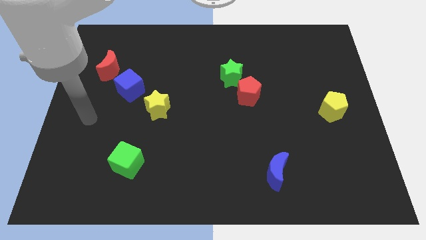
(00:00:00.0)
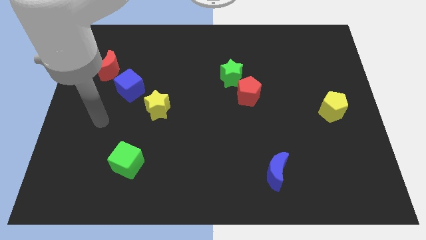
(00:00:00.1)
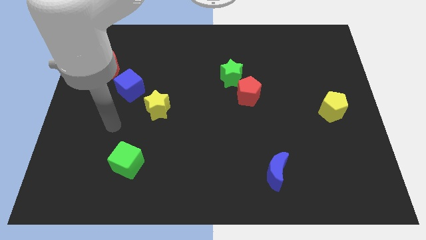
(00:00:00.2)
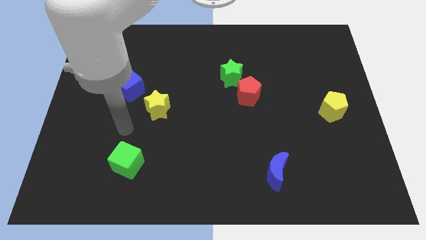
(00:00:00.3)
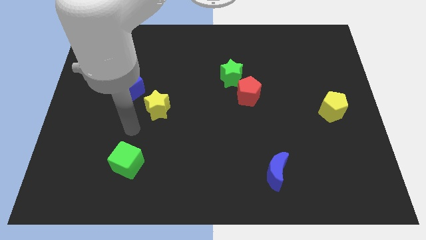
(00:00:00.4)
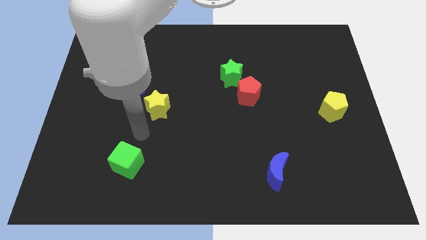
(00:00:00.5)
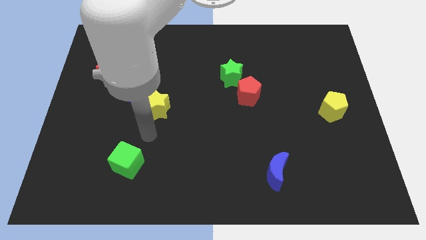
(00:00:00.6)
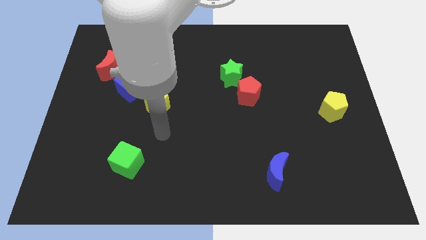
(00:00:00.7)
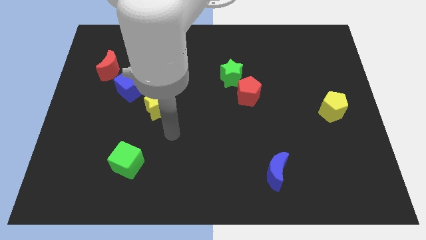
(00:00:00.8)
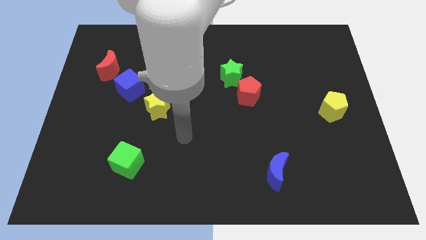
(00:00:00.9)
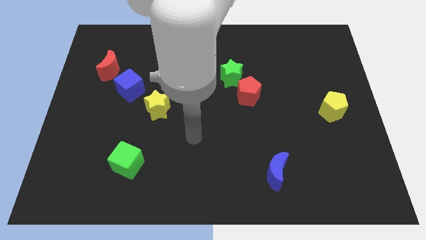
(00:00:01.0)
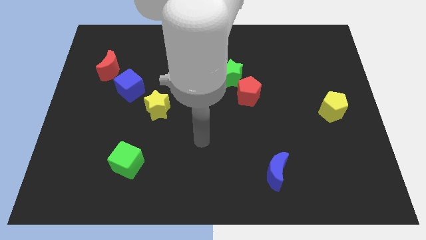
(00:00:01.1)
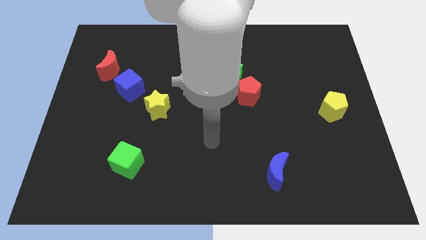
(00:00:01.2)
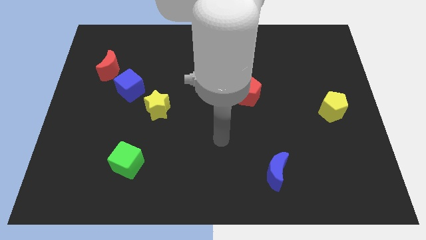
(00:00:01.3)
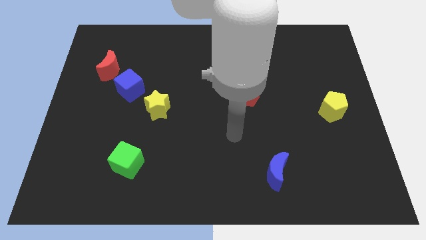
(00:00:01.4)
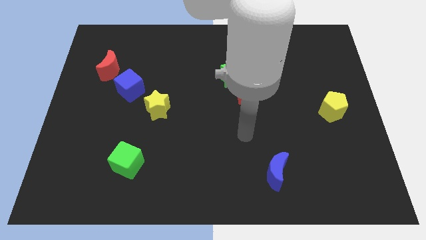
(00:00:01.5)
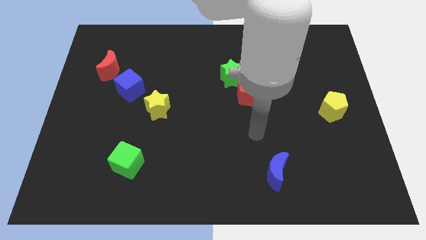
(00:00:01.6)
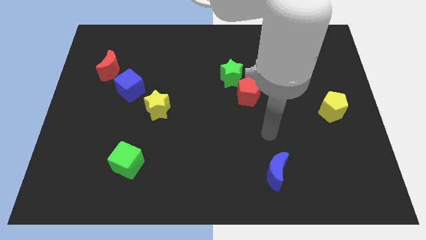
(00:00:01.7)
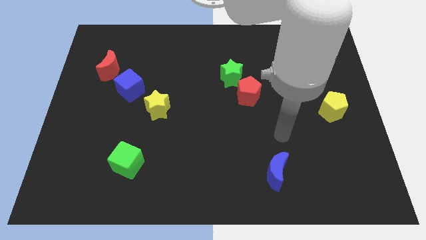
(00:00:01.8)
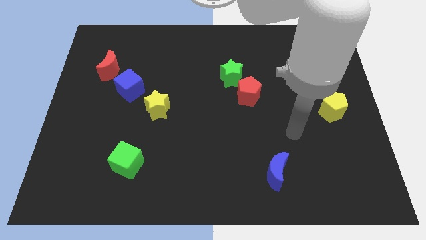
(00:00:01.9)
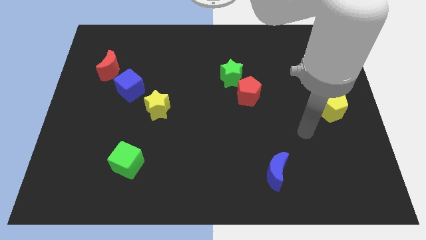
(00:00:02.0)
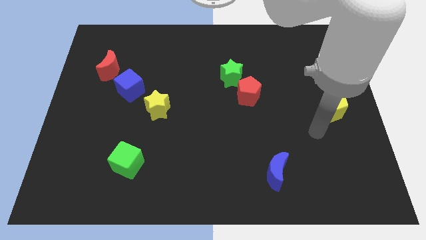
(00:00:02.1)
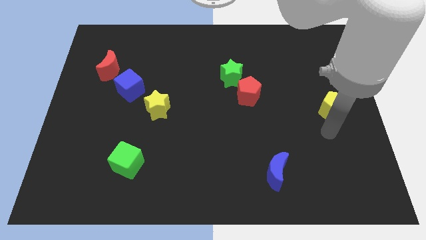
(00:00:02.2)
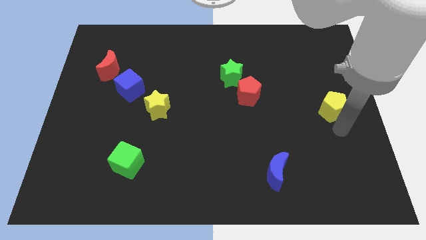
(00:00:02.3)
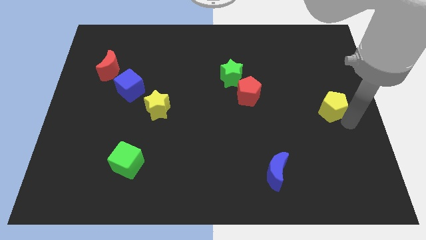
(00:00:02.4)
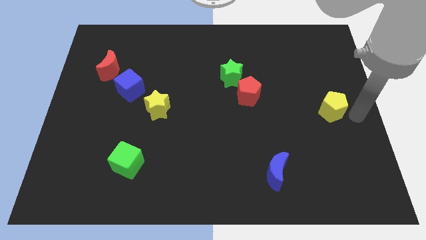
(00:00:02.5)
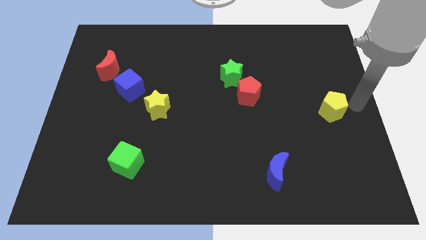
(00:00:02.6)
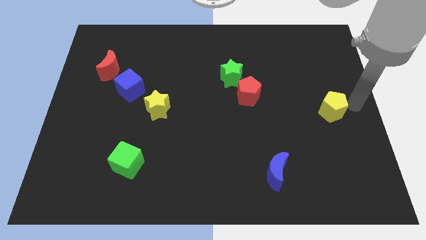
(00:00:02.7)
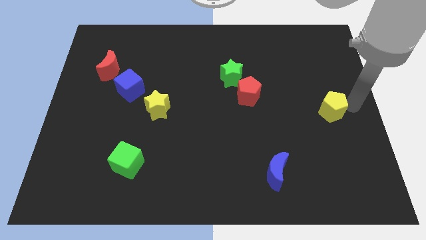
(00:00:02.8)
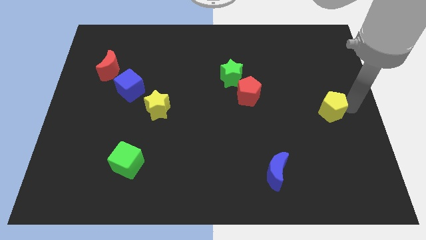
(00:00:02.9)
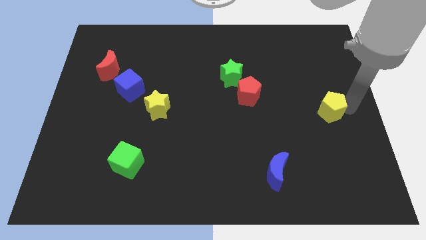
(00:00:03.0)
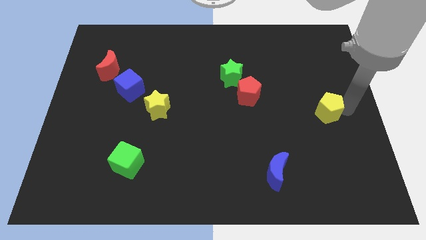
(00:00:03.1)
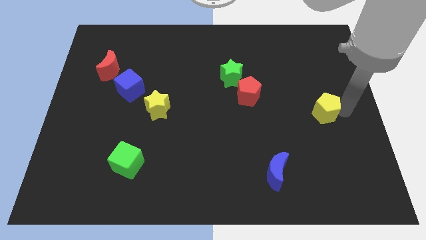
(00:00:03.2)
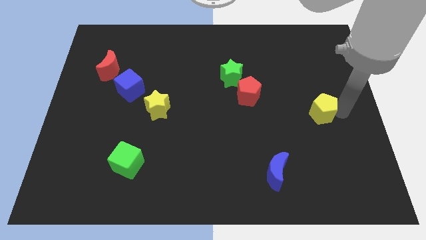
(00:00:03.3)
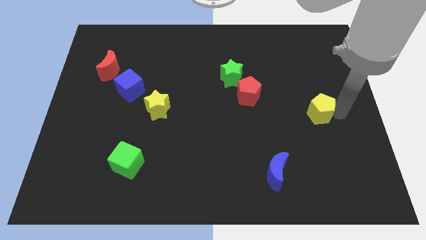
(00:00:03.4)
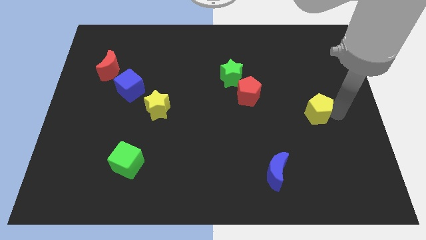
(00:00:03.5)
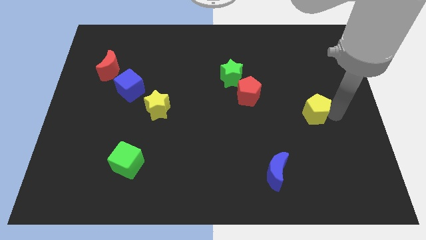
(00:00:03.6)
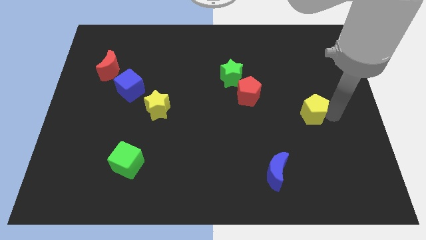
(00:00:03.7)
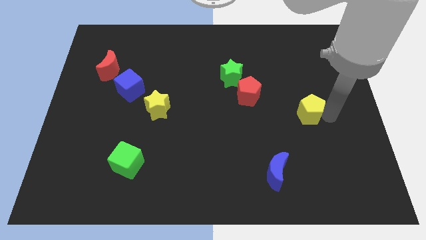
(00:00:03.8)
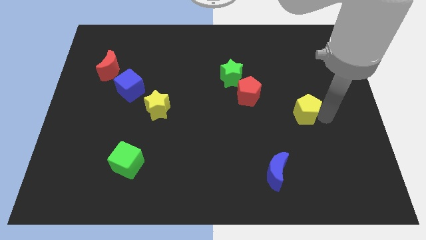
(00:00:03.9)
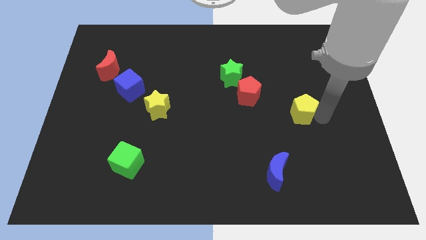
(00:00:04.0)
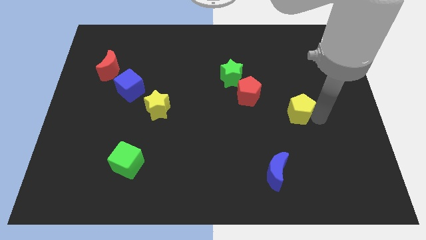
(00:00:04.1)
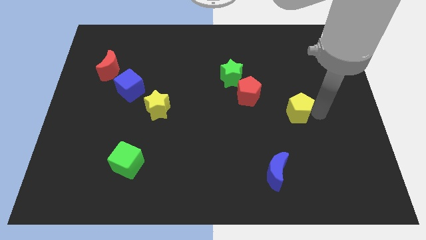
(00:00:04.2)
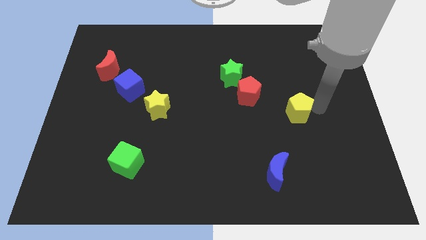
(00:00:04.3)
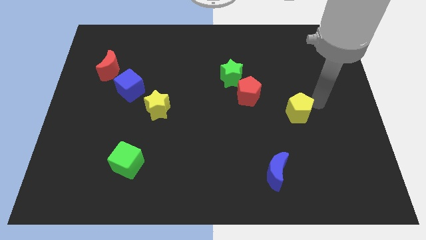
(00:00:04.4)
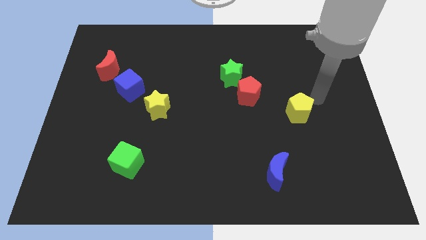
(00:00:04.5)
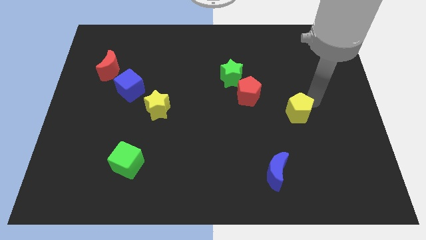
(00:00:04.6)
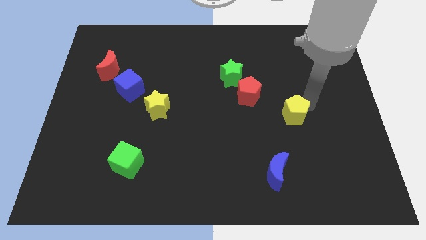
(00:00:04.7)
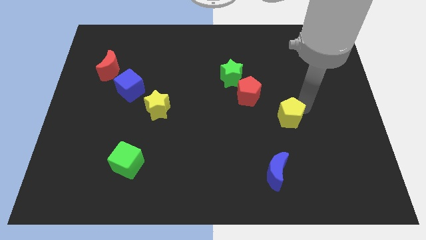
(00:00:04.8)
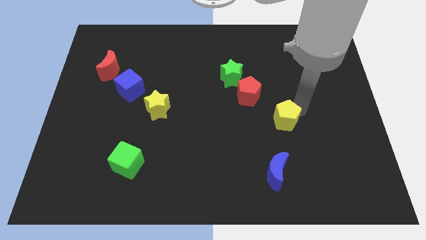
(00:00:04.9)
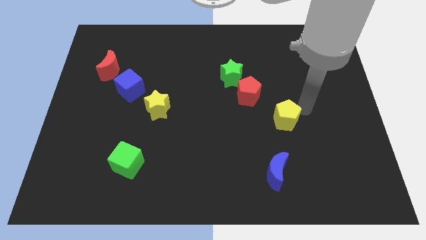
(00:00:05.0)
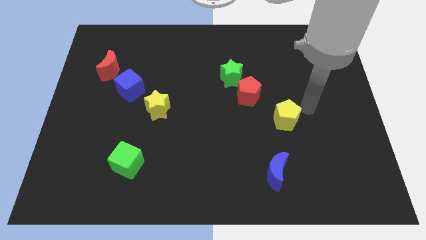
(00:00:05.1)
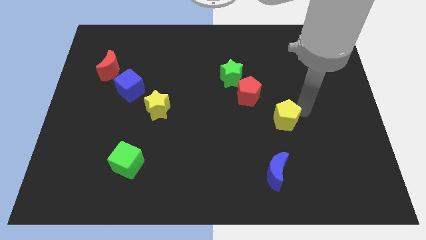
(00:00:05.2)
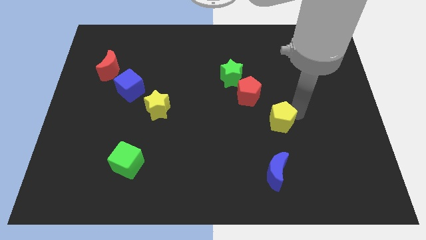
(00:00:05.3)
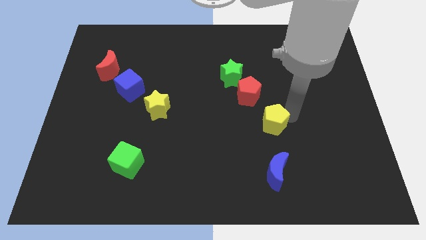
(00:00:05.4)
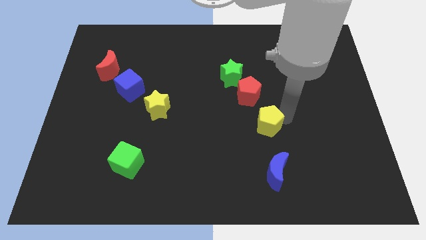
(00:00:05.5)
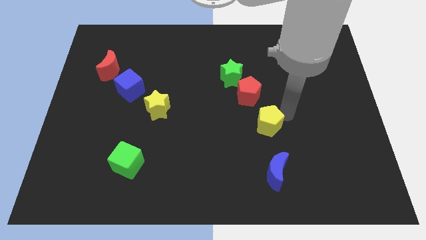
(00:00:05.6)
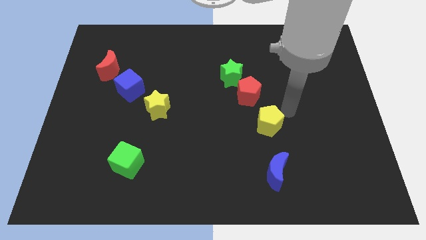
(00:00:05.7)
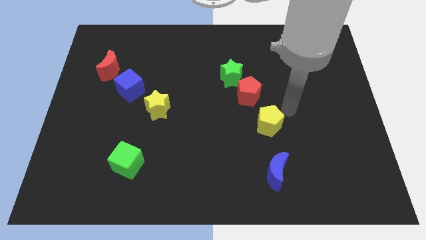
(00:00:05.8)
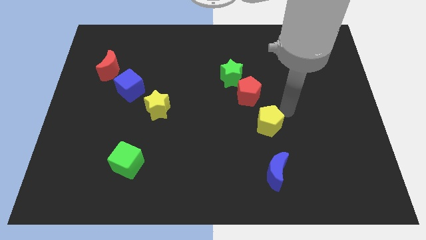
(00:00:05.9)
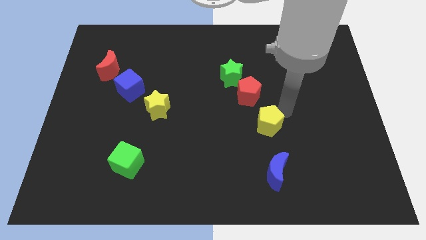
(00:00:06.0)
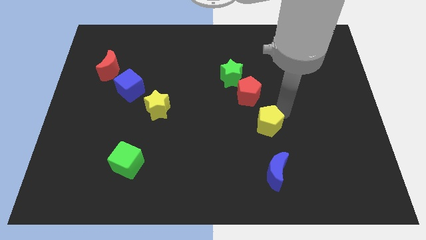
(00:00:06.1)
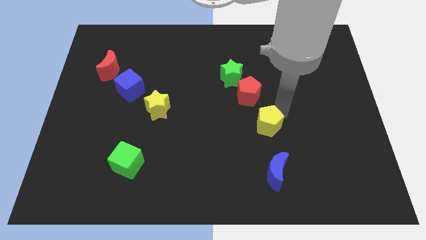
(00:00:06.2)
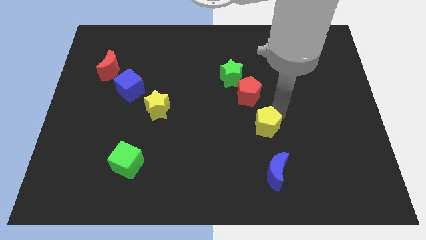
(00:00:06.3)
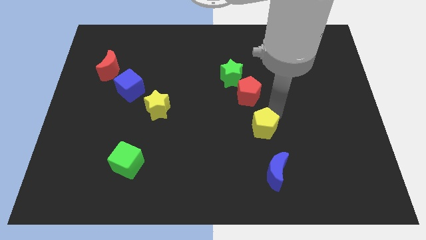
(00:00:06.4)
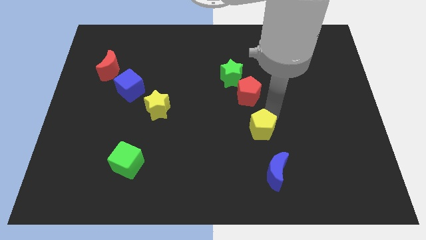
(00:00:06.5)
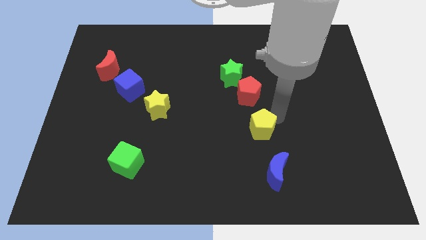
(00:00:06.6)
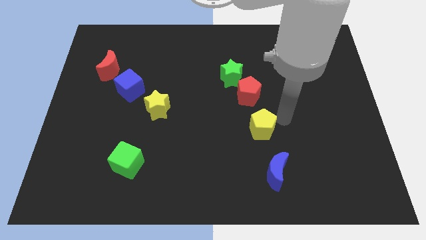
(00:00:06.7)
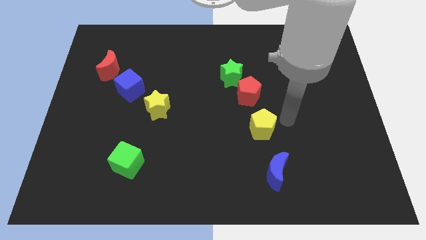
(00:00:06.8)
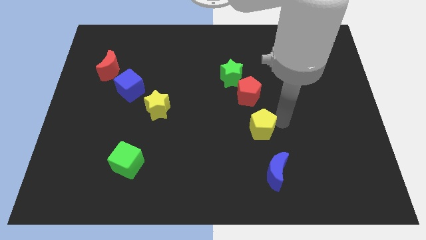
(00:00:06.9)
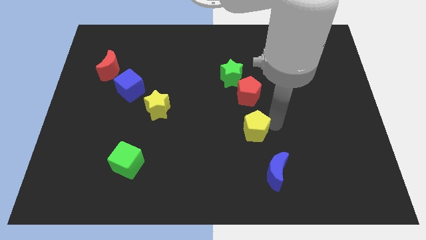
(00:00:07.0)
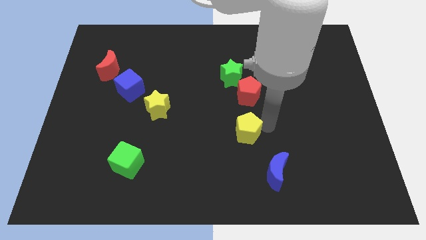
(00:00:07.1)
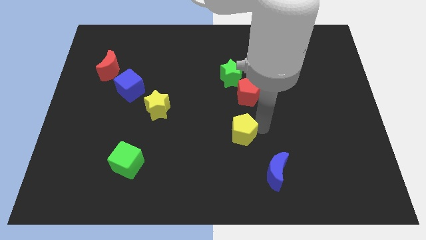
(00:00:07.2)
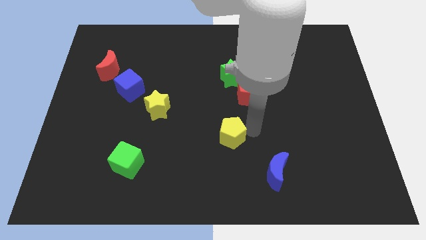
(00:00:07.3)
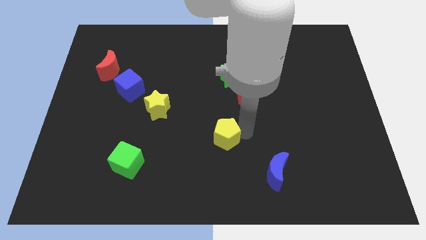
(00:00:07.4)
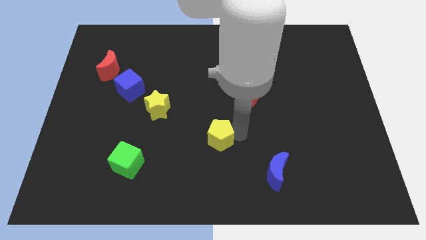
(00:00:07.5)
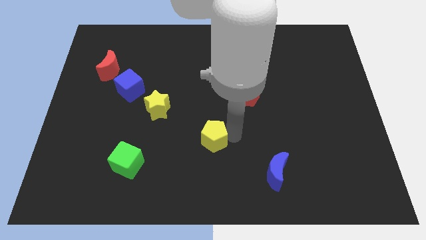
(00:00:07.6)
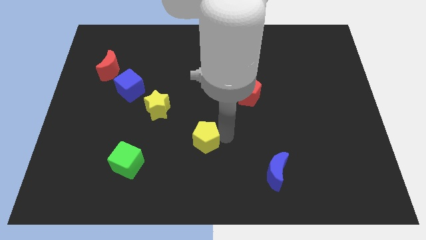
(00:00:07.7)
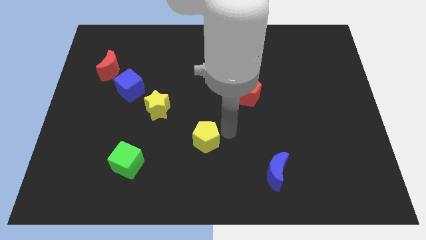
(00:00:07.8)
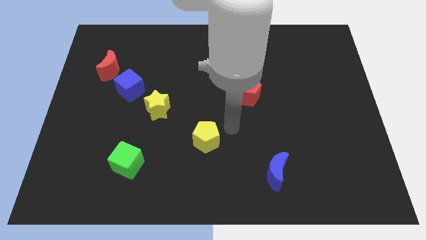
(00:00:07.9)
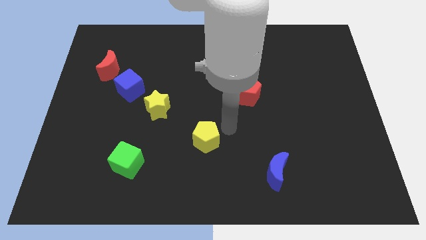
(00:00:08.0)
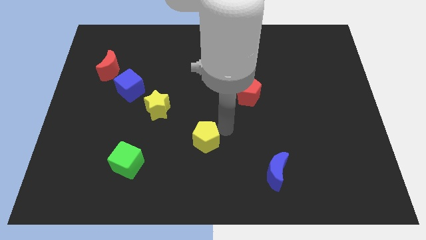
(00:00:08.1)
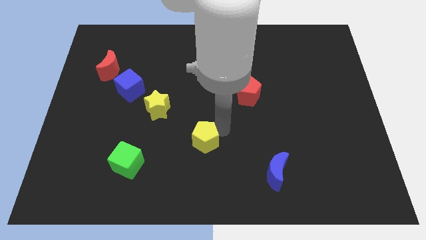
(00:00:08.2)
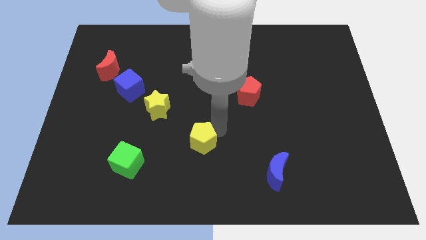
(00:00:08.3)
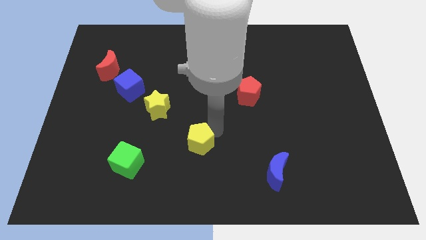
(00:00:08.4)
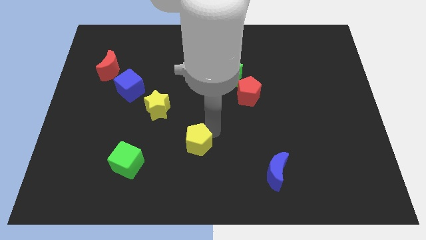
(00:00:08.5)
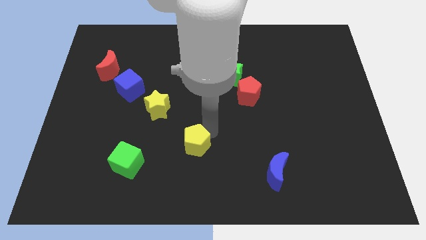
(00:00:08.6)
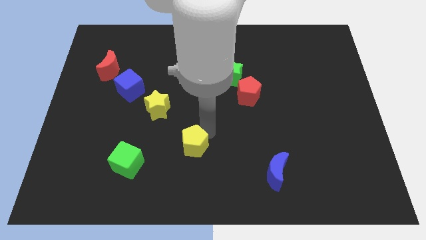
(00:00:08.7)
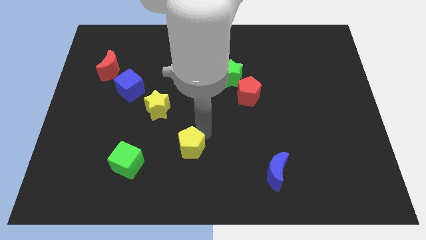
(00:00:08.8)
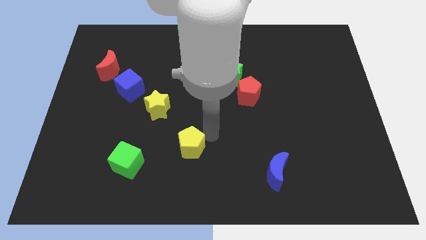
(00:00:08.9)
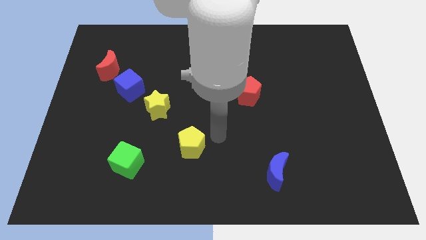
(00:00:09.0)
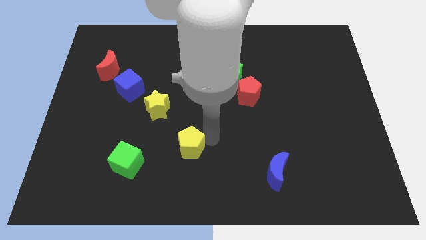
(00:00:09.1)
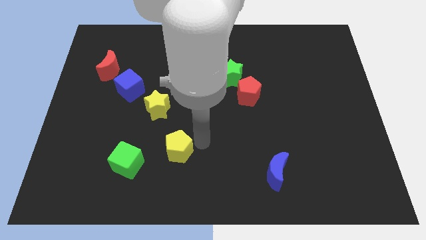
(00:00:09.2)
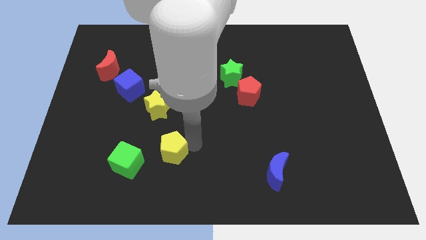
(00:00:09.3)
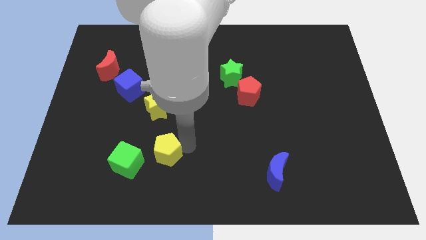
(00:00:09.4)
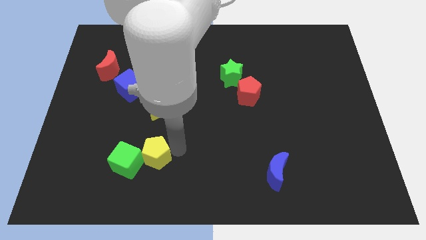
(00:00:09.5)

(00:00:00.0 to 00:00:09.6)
slide the yellow pentagon to the green cube
